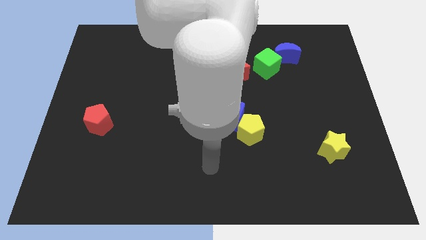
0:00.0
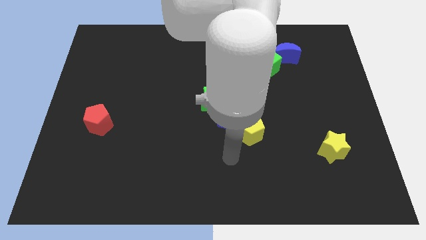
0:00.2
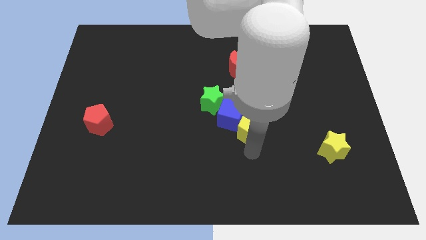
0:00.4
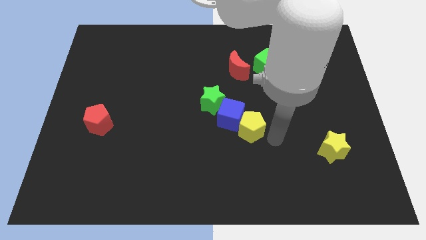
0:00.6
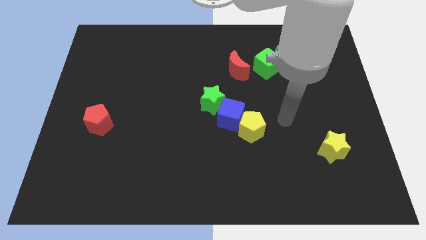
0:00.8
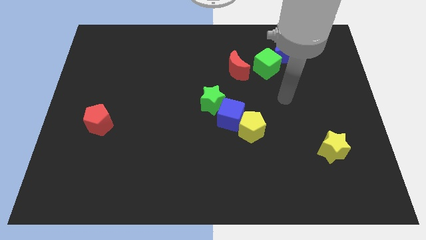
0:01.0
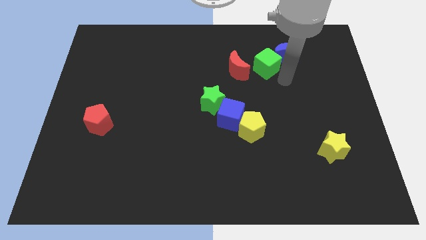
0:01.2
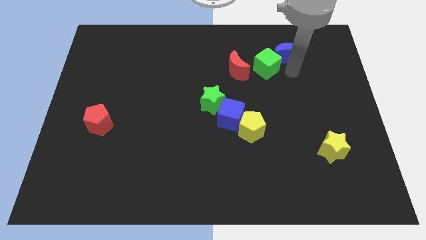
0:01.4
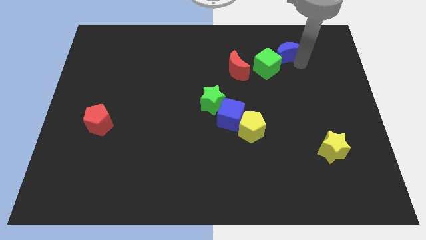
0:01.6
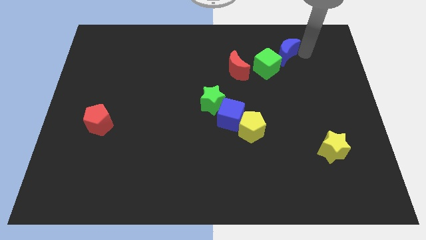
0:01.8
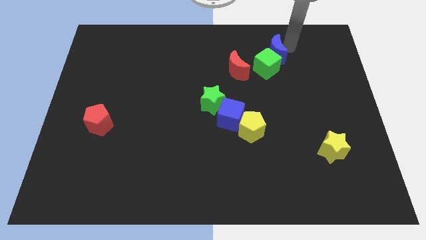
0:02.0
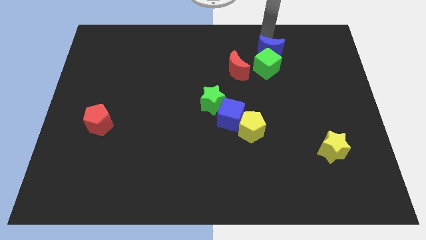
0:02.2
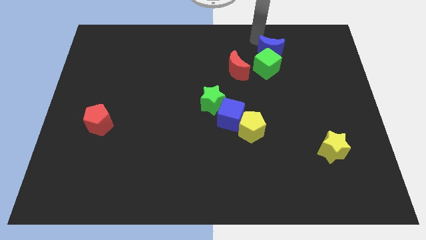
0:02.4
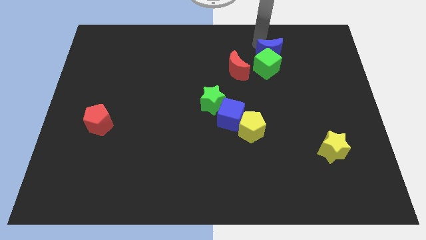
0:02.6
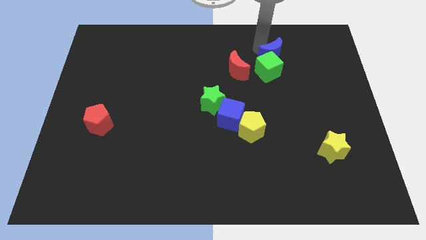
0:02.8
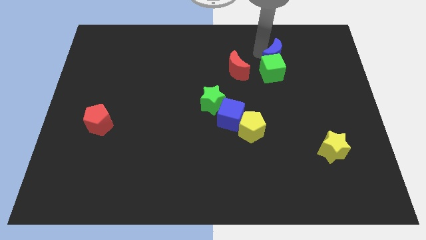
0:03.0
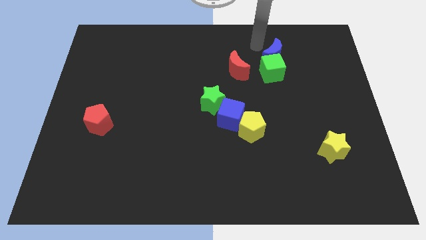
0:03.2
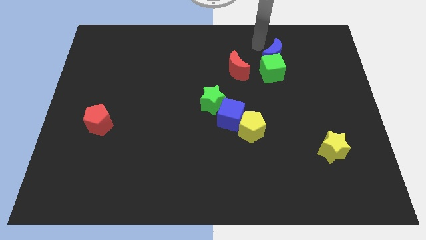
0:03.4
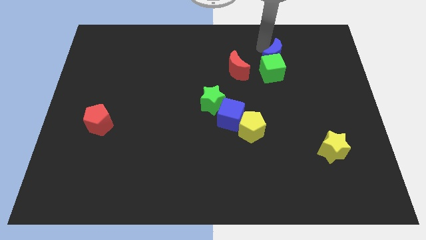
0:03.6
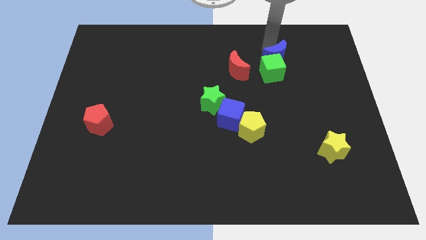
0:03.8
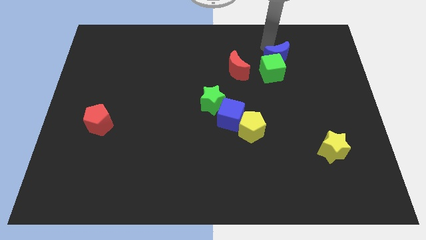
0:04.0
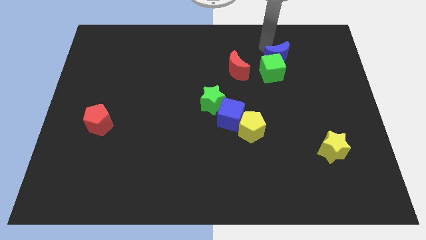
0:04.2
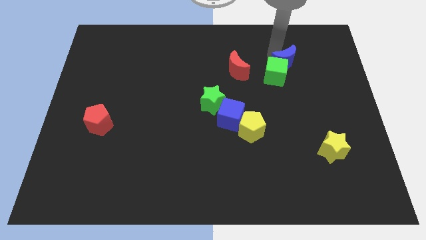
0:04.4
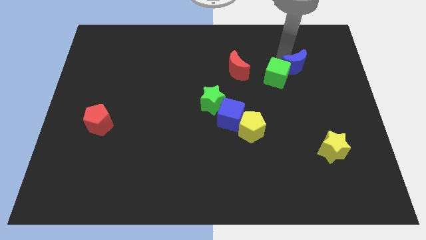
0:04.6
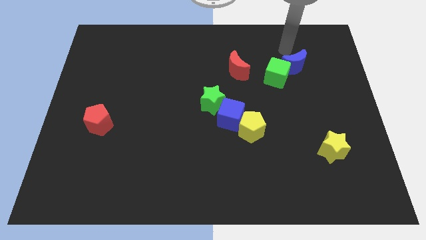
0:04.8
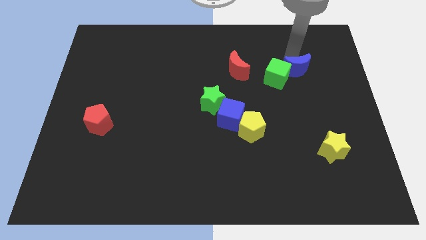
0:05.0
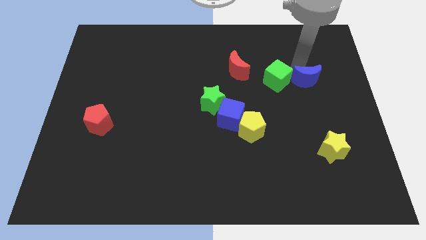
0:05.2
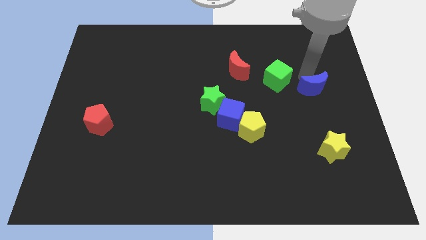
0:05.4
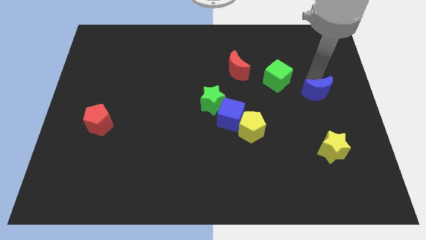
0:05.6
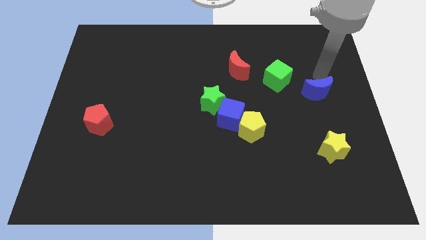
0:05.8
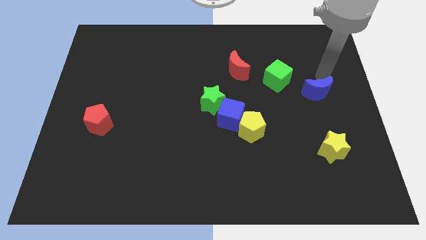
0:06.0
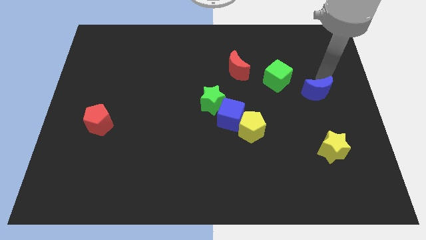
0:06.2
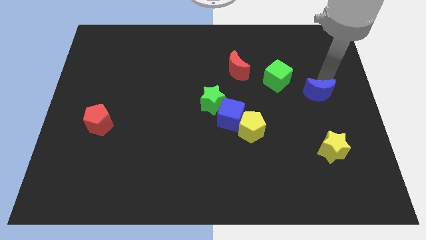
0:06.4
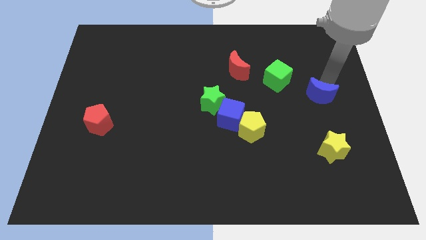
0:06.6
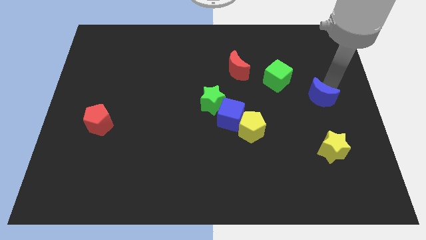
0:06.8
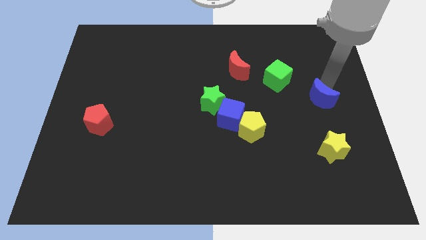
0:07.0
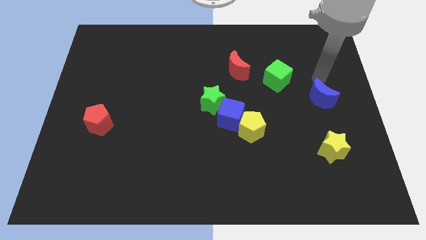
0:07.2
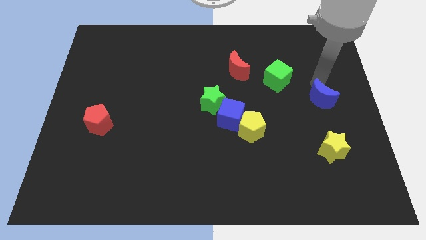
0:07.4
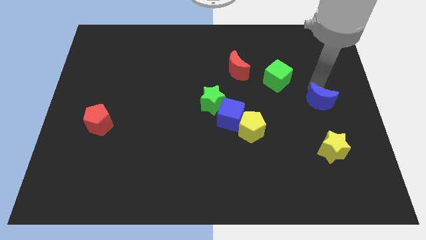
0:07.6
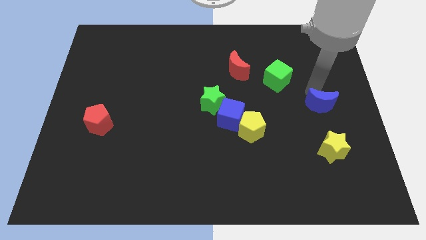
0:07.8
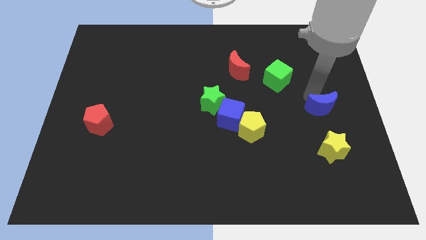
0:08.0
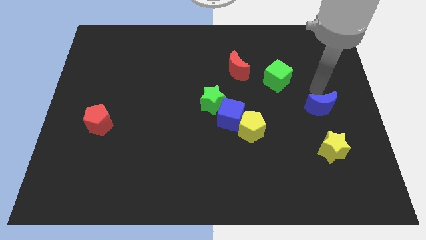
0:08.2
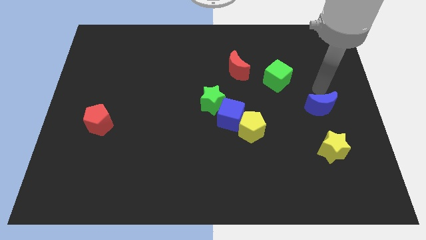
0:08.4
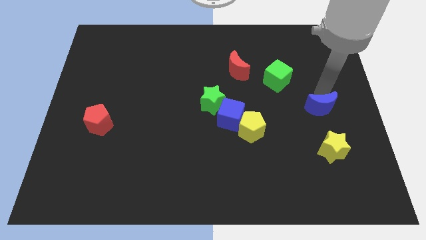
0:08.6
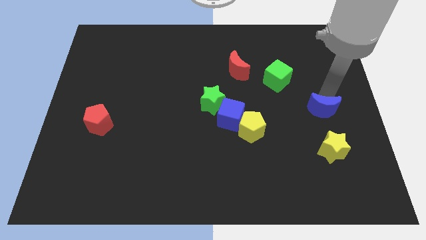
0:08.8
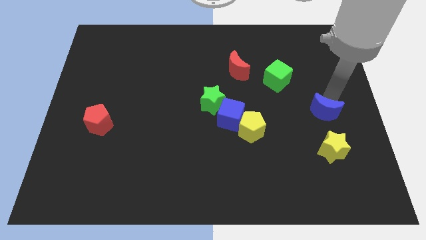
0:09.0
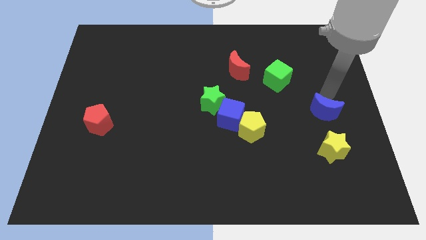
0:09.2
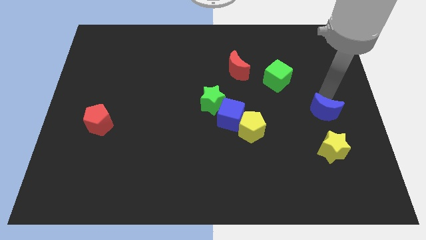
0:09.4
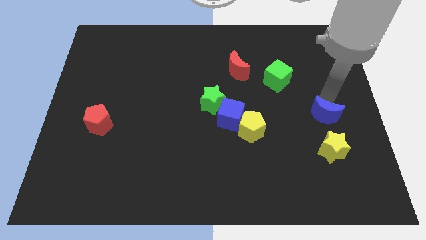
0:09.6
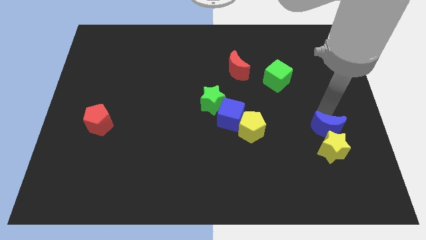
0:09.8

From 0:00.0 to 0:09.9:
slide the blue moon to the yellow star

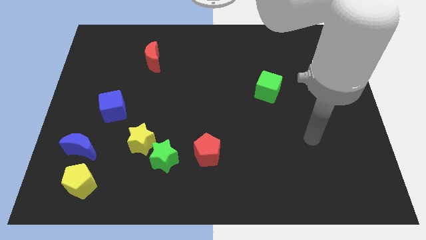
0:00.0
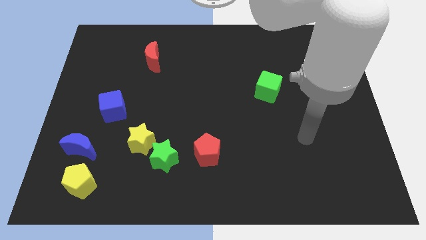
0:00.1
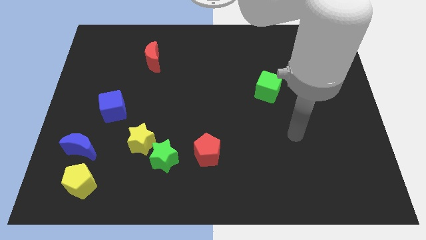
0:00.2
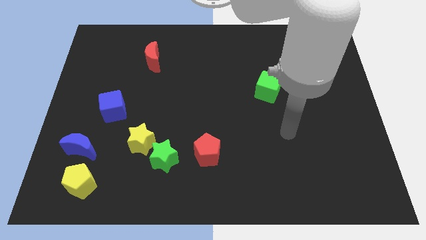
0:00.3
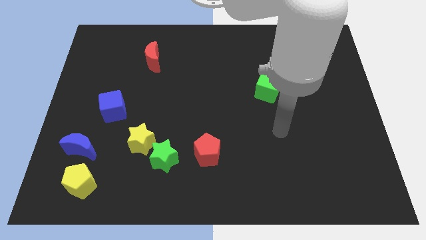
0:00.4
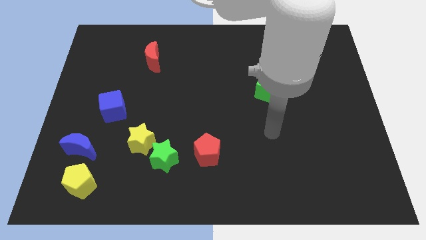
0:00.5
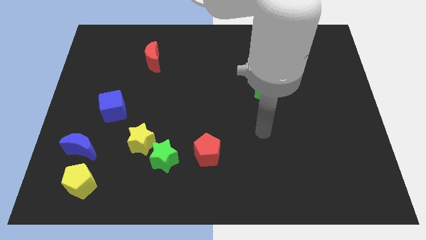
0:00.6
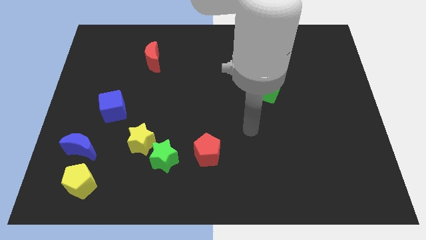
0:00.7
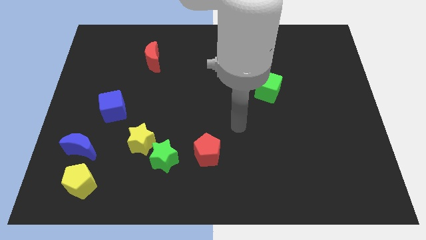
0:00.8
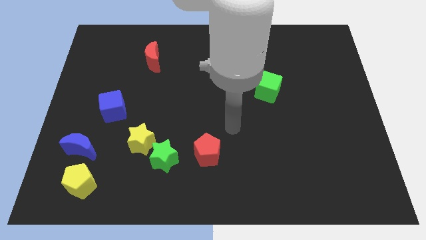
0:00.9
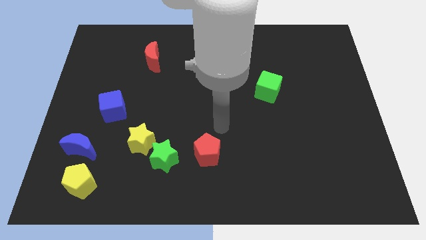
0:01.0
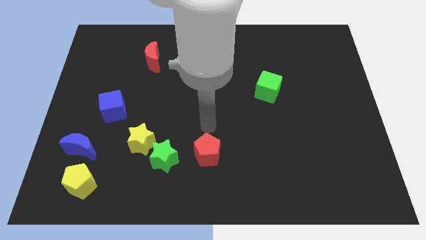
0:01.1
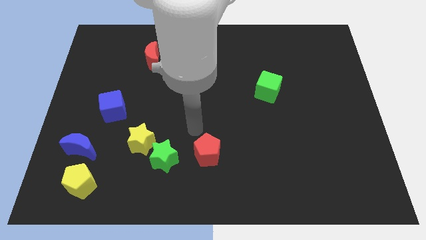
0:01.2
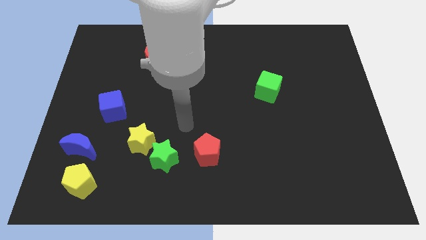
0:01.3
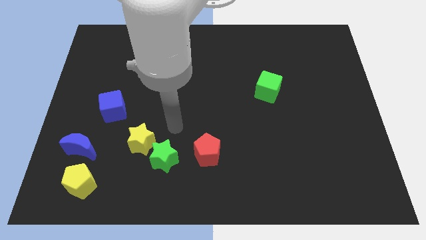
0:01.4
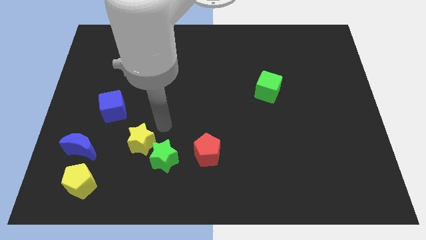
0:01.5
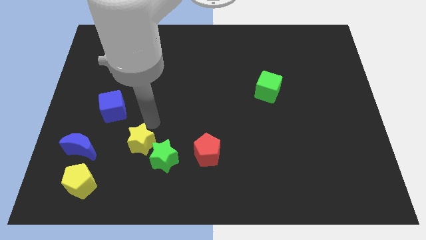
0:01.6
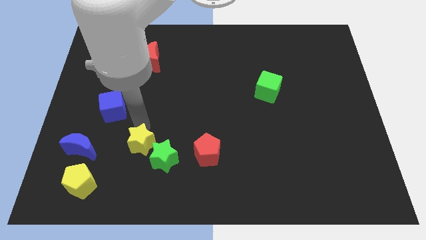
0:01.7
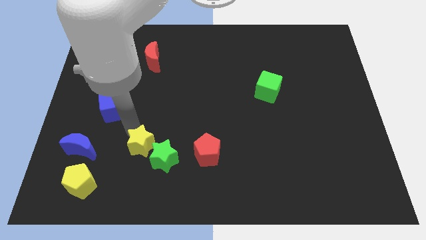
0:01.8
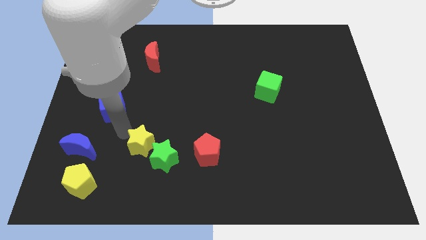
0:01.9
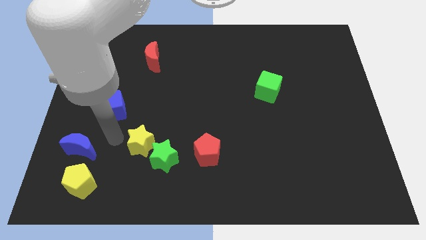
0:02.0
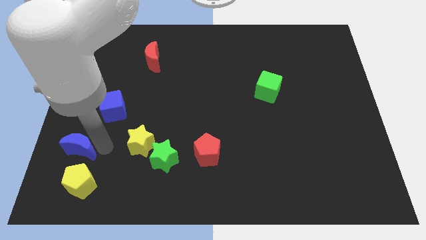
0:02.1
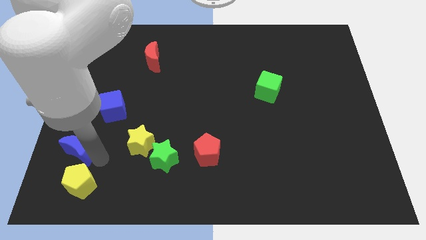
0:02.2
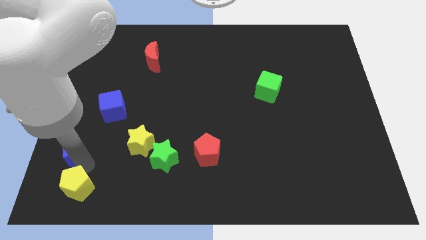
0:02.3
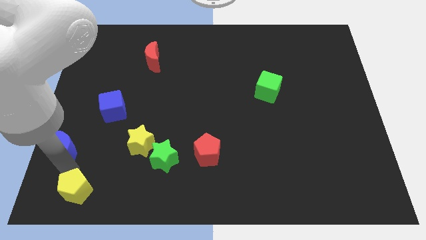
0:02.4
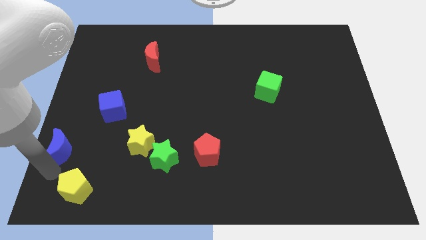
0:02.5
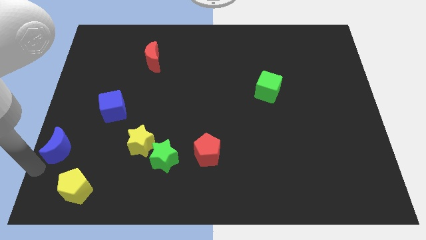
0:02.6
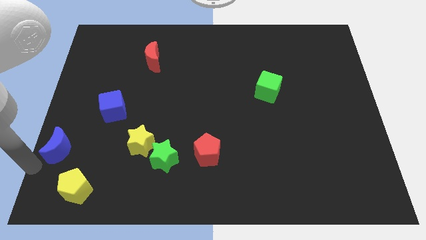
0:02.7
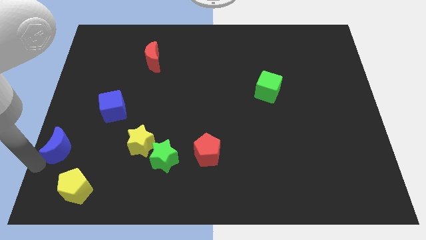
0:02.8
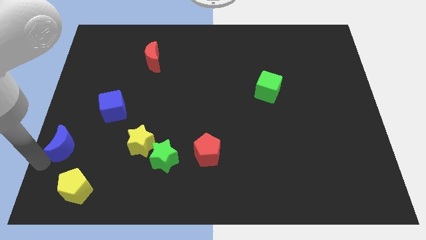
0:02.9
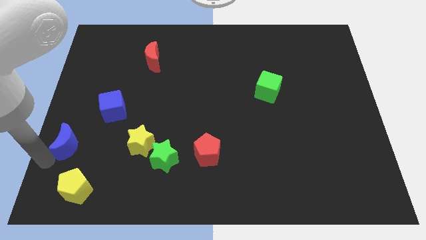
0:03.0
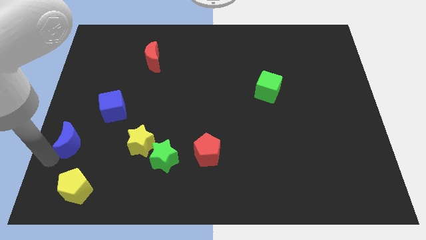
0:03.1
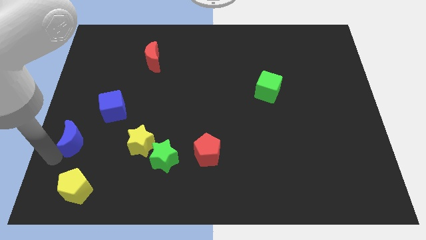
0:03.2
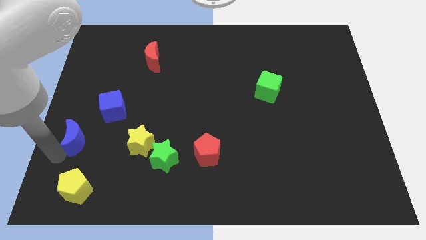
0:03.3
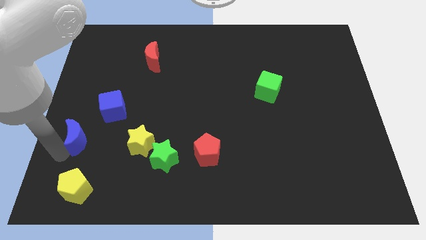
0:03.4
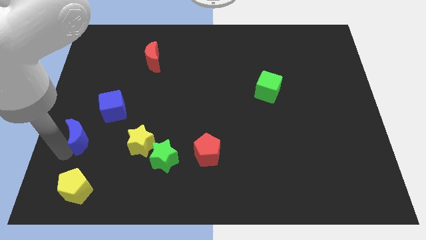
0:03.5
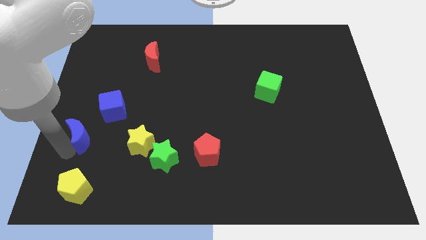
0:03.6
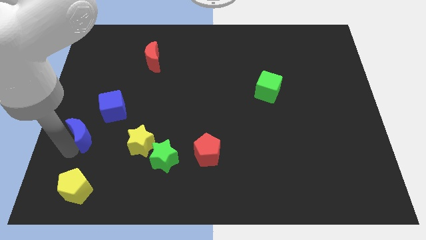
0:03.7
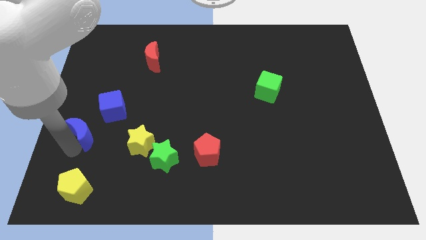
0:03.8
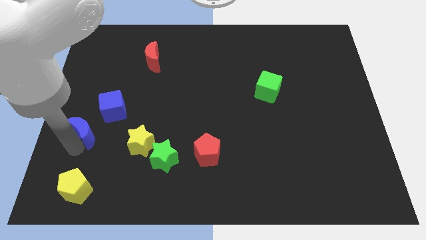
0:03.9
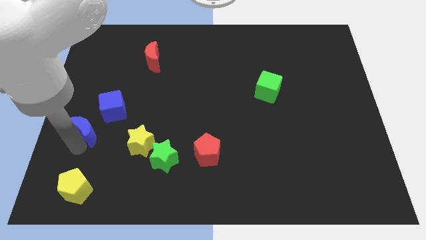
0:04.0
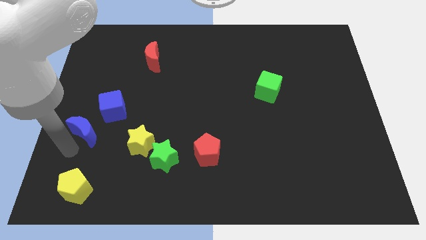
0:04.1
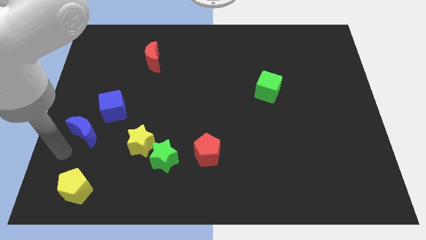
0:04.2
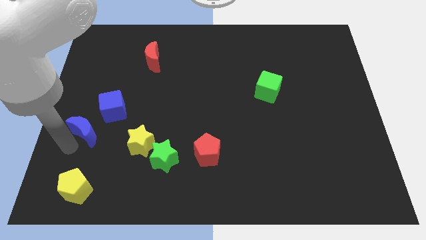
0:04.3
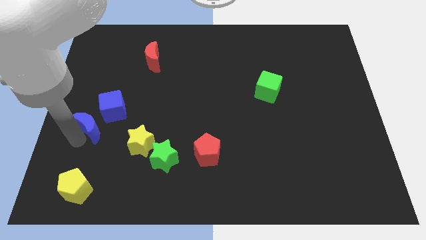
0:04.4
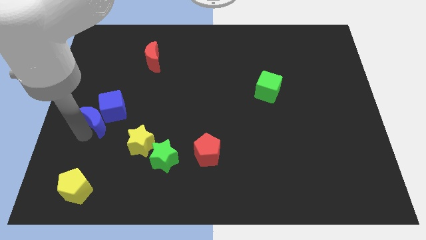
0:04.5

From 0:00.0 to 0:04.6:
put the blue moon to the blue cube
